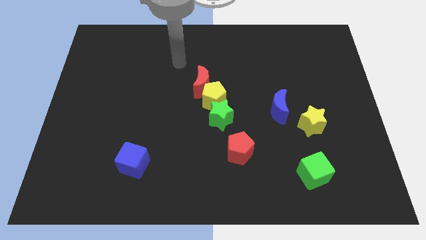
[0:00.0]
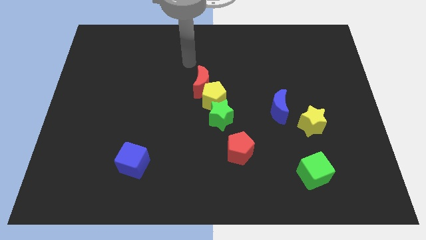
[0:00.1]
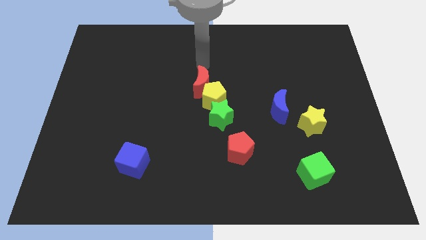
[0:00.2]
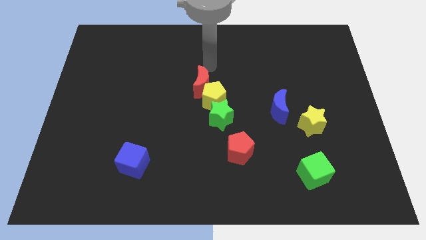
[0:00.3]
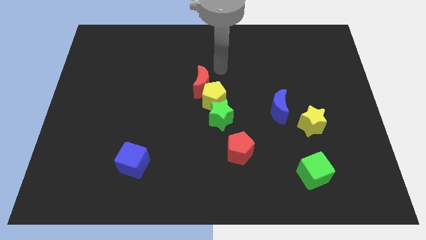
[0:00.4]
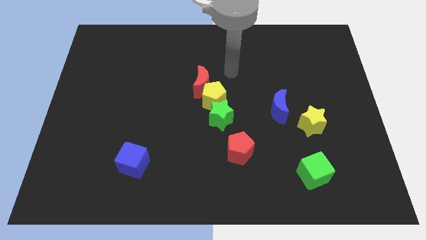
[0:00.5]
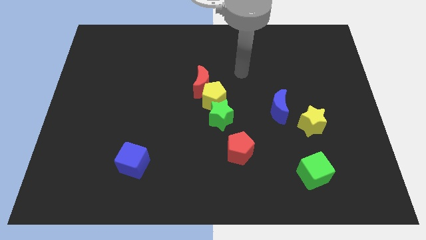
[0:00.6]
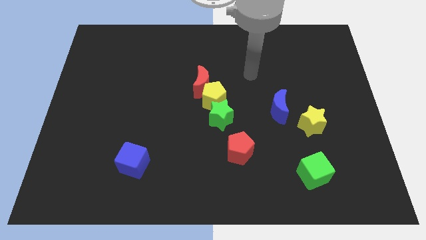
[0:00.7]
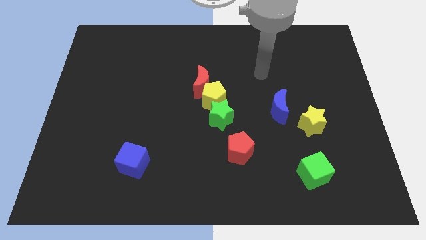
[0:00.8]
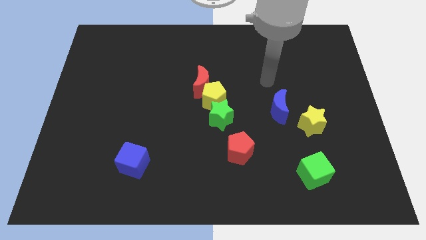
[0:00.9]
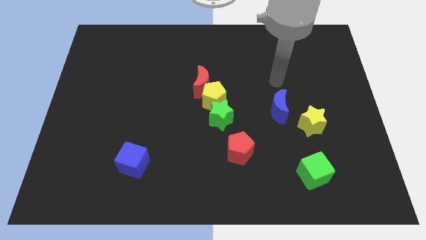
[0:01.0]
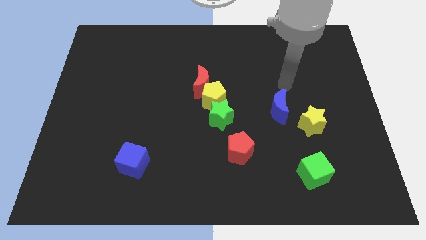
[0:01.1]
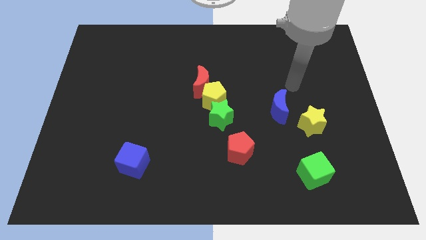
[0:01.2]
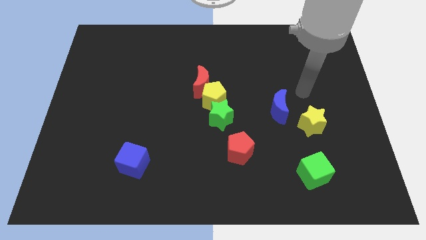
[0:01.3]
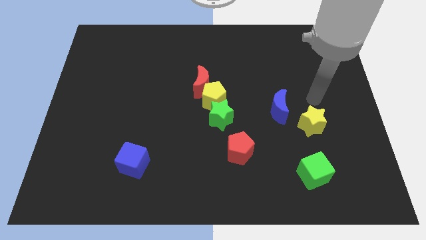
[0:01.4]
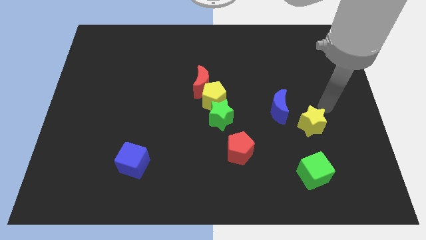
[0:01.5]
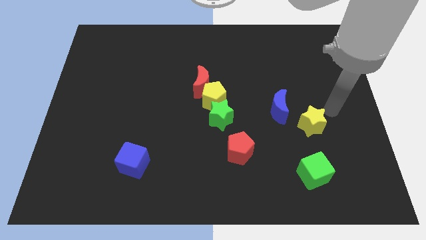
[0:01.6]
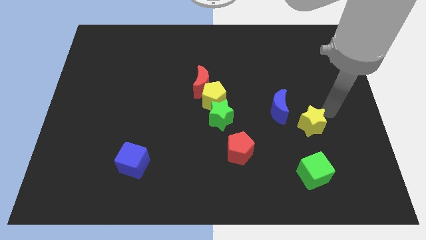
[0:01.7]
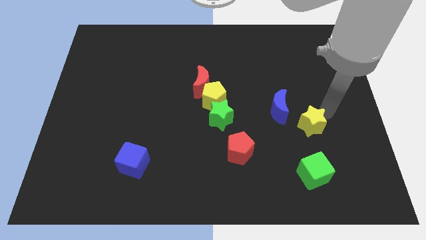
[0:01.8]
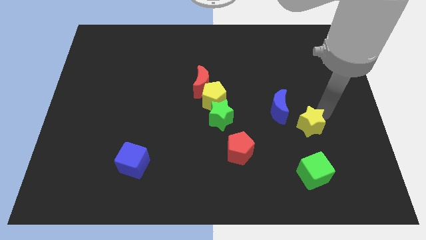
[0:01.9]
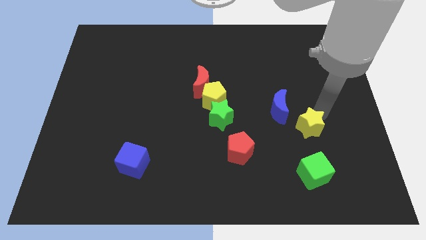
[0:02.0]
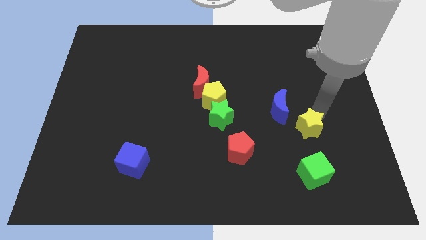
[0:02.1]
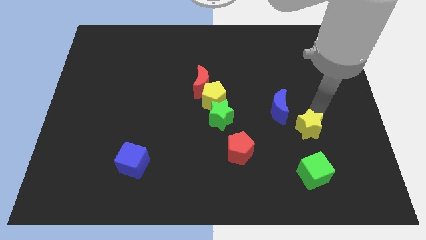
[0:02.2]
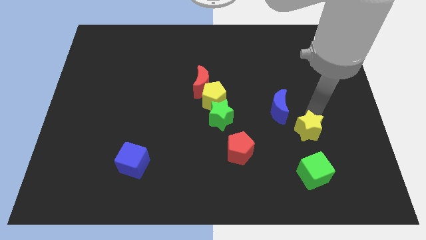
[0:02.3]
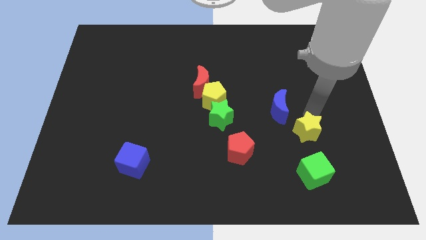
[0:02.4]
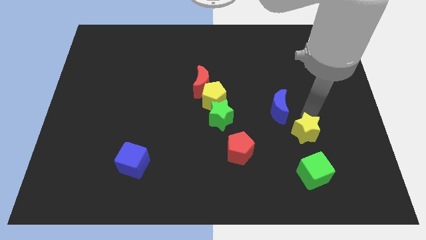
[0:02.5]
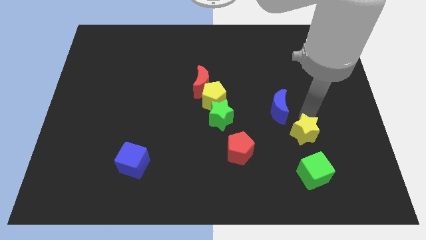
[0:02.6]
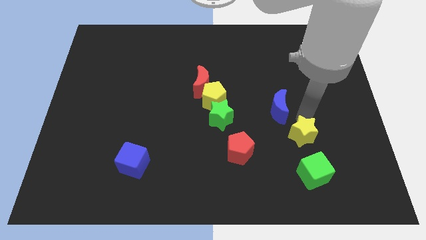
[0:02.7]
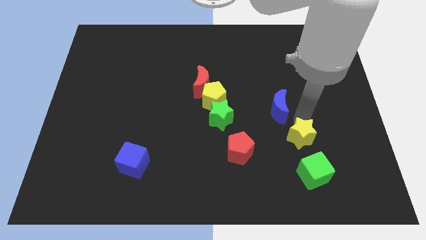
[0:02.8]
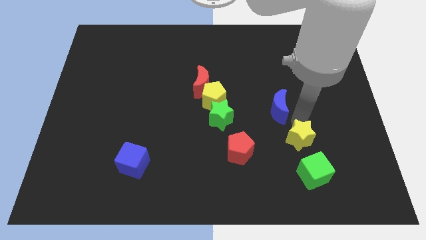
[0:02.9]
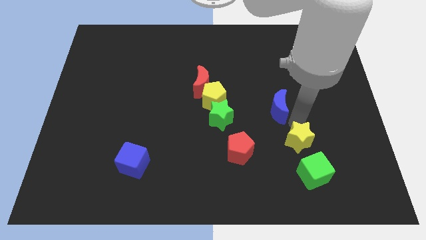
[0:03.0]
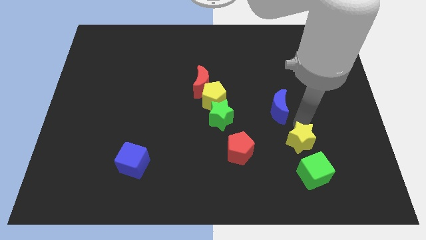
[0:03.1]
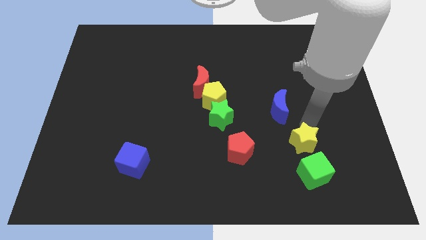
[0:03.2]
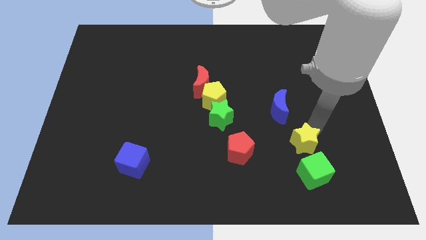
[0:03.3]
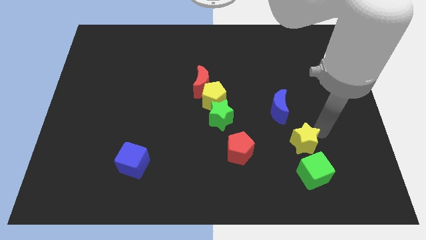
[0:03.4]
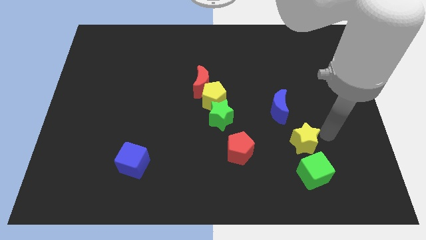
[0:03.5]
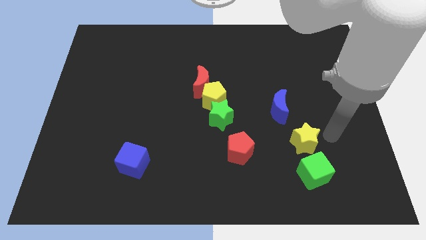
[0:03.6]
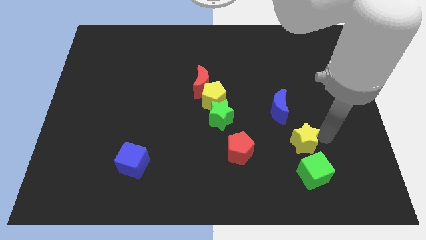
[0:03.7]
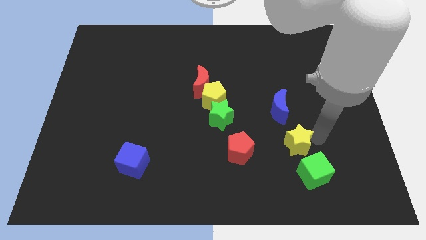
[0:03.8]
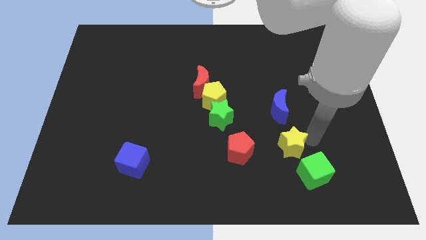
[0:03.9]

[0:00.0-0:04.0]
slide the yellow star diagonally down and to the left a little

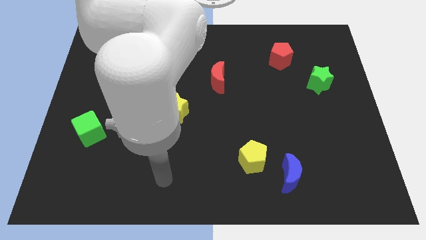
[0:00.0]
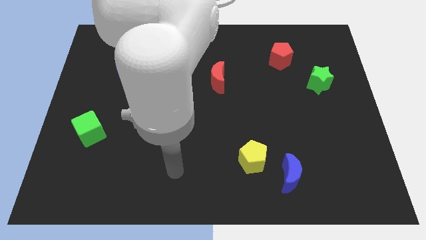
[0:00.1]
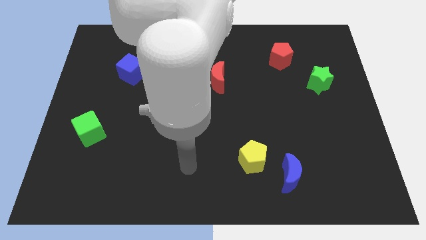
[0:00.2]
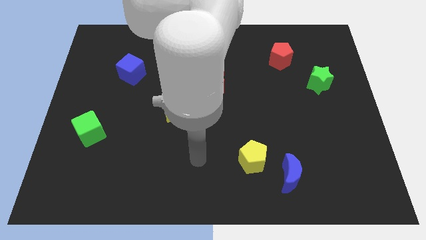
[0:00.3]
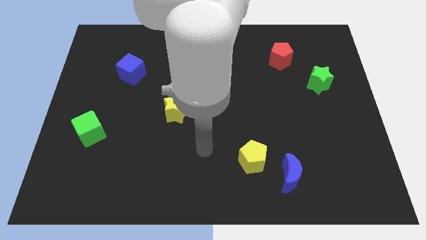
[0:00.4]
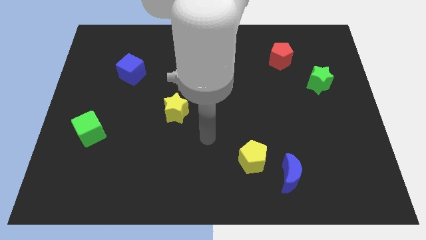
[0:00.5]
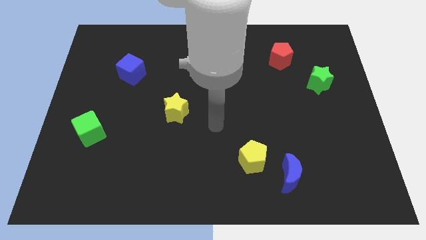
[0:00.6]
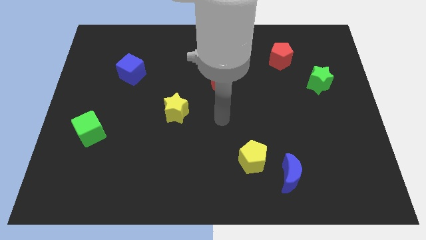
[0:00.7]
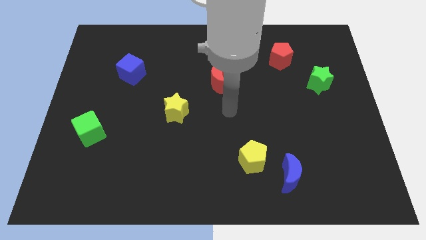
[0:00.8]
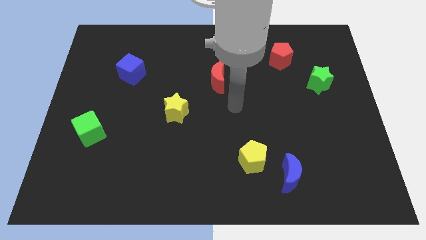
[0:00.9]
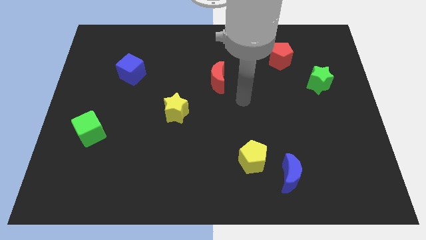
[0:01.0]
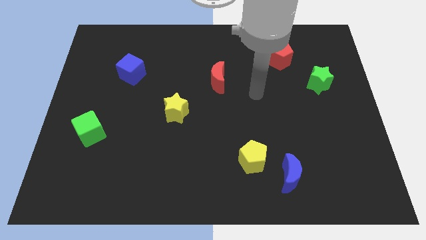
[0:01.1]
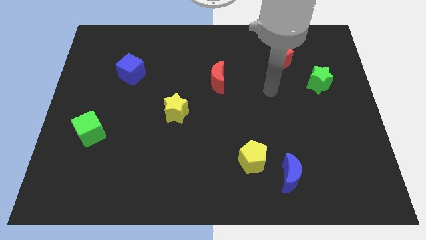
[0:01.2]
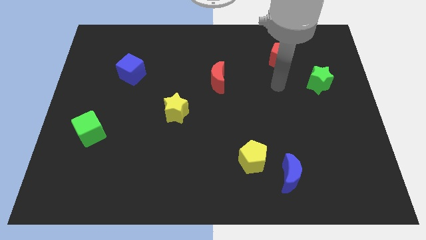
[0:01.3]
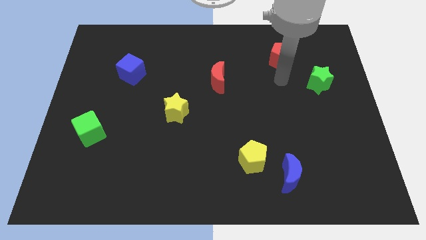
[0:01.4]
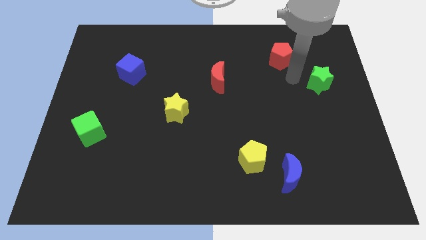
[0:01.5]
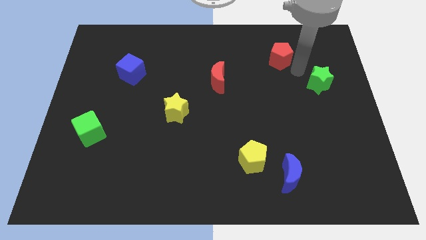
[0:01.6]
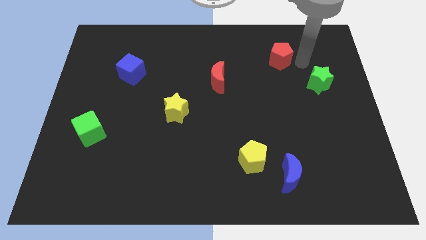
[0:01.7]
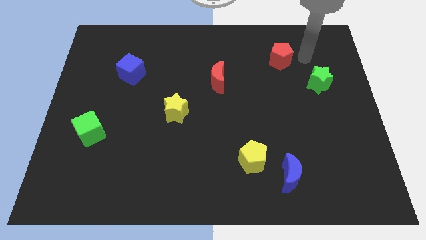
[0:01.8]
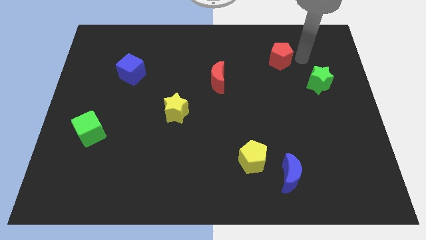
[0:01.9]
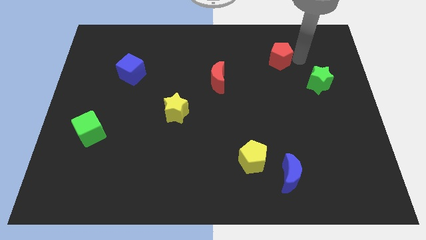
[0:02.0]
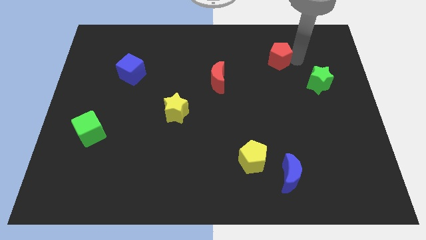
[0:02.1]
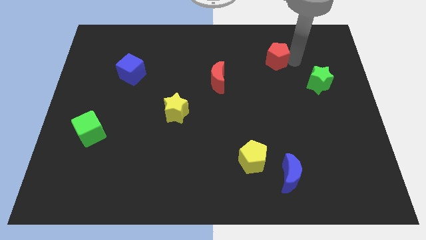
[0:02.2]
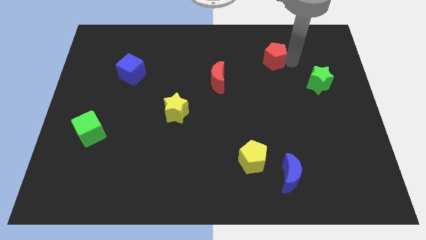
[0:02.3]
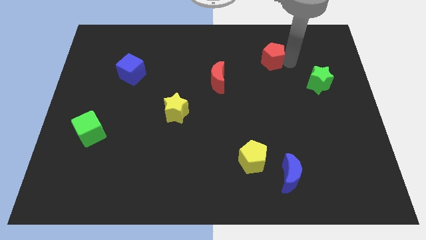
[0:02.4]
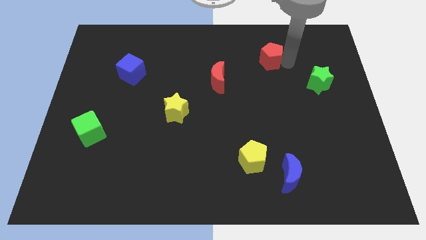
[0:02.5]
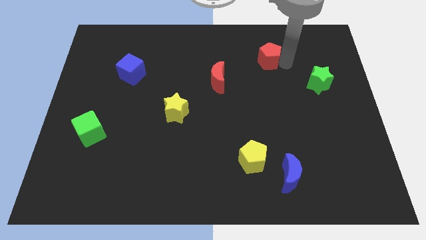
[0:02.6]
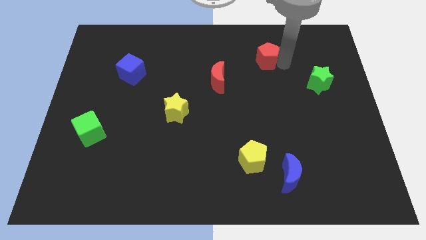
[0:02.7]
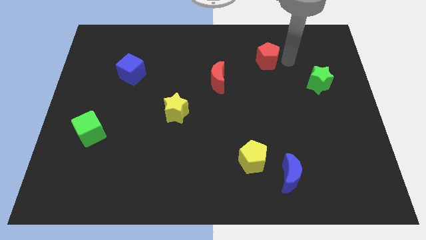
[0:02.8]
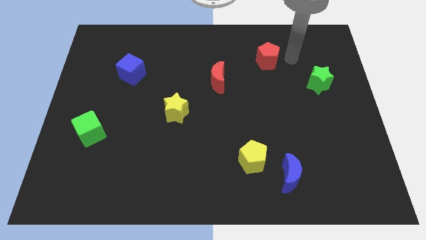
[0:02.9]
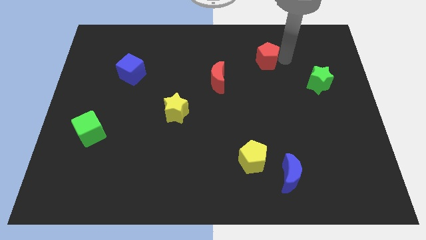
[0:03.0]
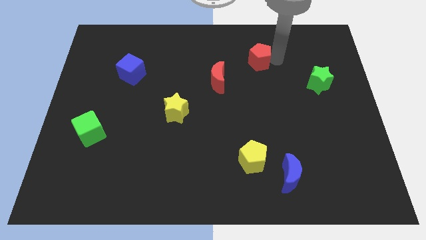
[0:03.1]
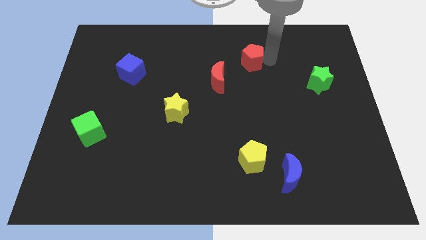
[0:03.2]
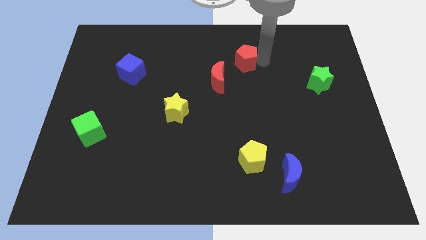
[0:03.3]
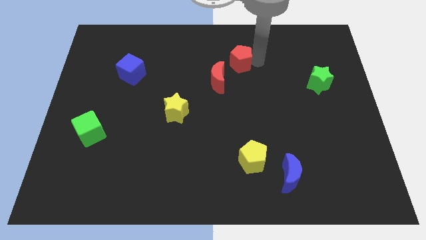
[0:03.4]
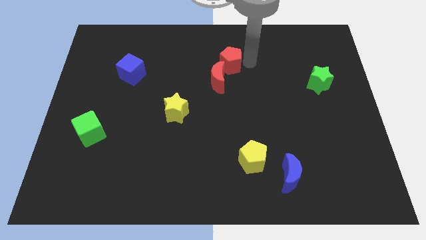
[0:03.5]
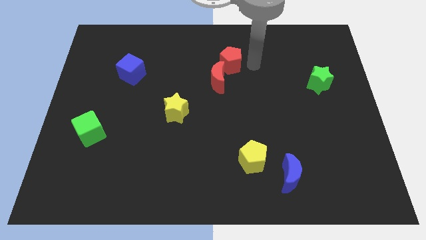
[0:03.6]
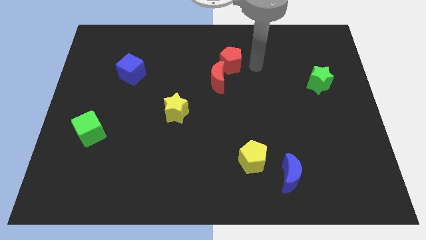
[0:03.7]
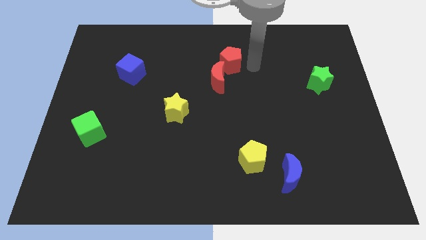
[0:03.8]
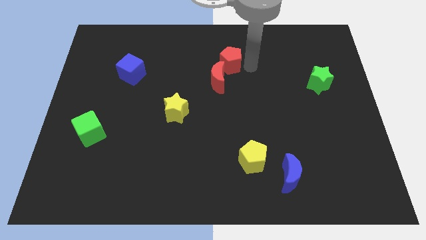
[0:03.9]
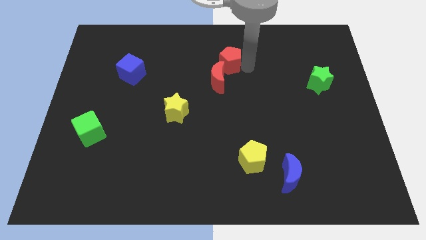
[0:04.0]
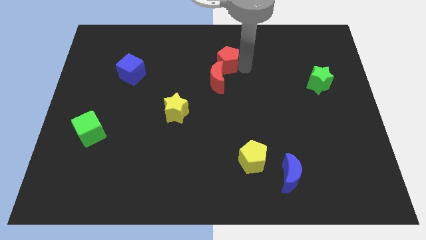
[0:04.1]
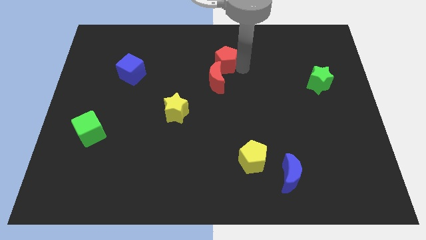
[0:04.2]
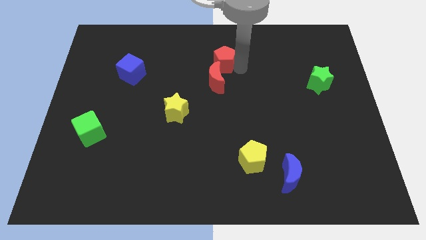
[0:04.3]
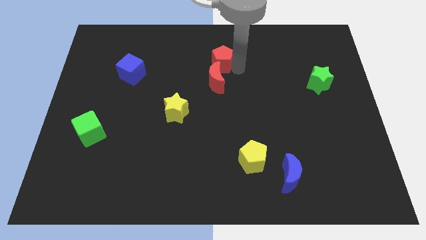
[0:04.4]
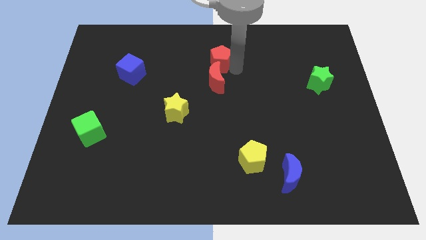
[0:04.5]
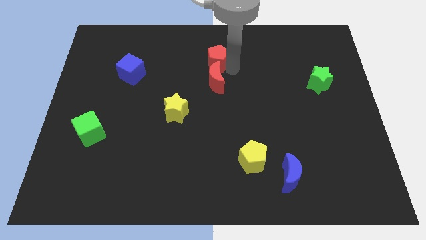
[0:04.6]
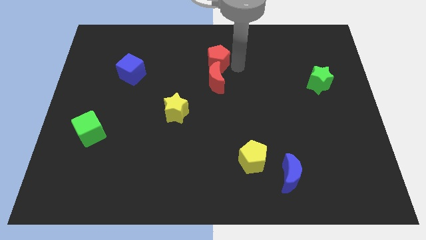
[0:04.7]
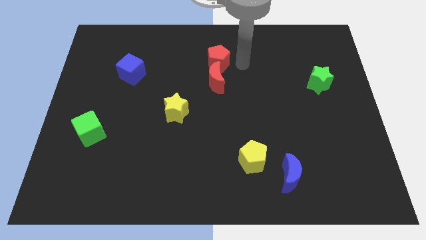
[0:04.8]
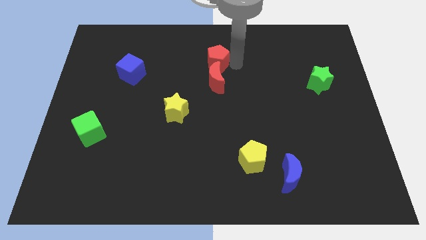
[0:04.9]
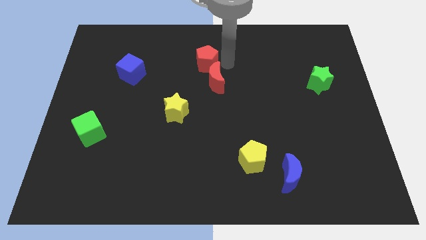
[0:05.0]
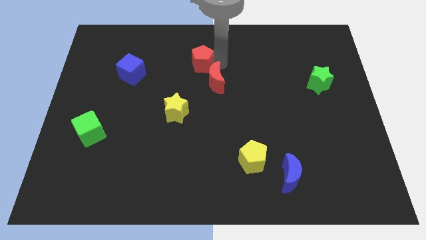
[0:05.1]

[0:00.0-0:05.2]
slide the red pentagon left
